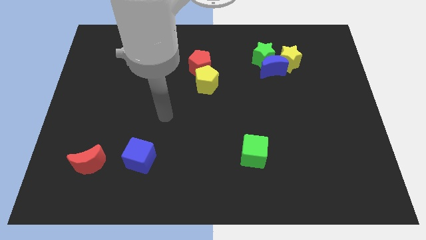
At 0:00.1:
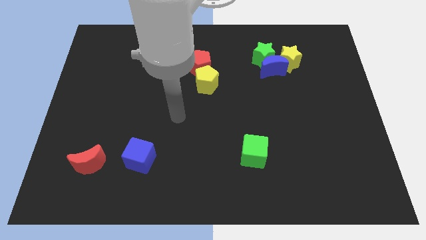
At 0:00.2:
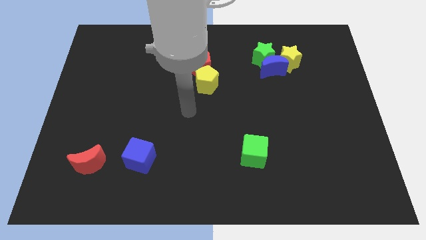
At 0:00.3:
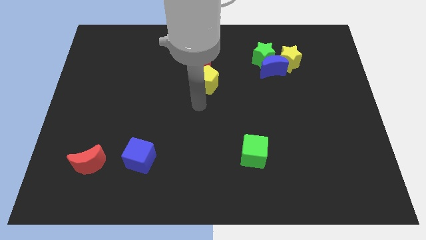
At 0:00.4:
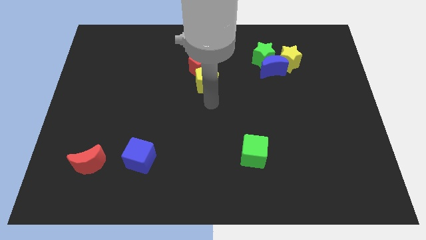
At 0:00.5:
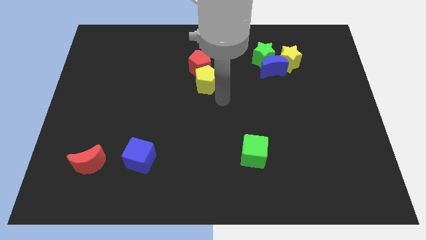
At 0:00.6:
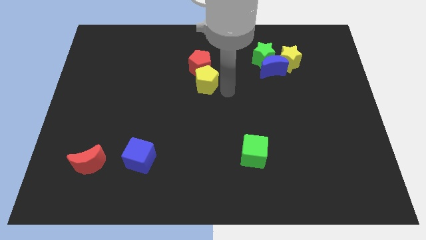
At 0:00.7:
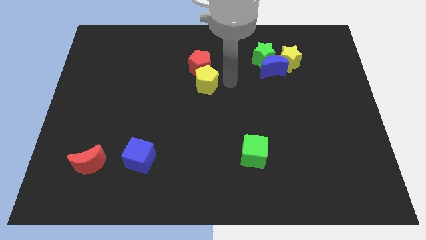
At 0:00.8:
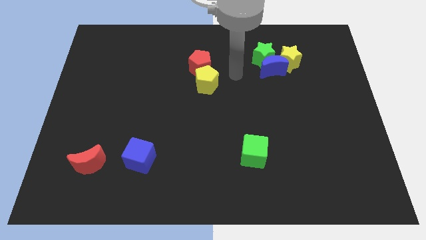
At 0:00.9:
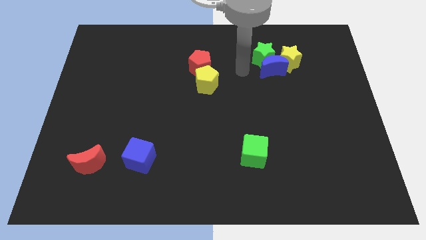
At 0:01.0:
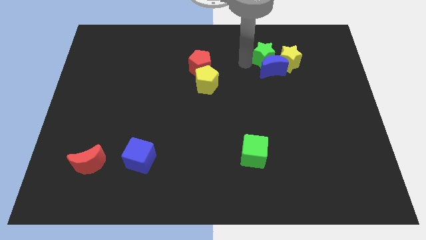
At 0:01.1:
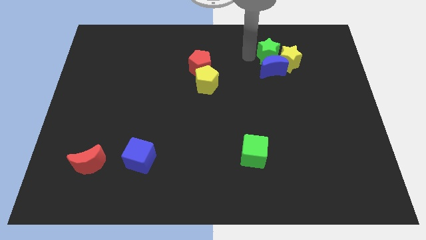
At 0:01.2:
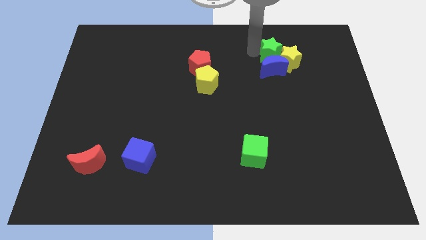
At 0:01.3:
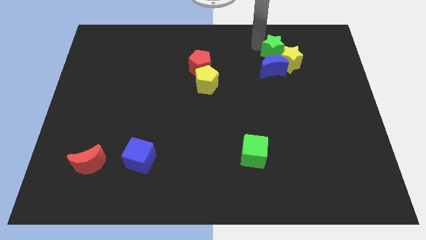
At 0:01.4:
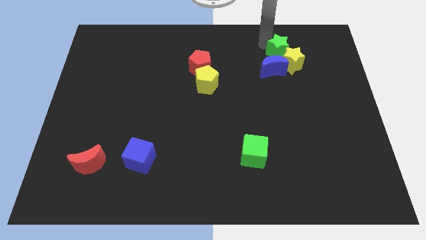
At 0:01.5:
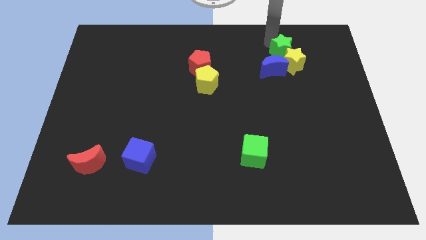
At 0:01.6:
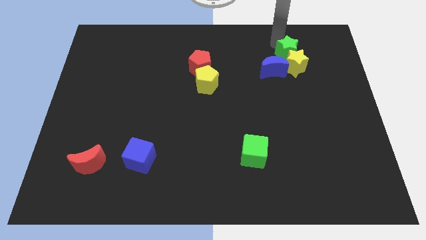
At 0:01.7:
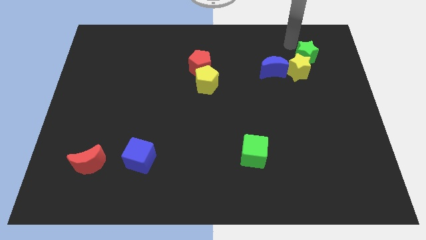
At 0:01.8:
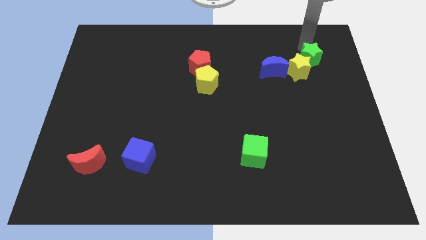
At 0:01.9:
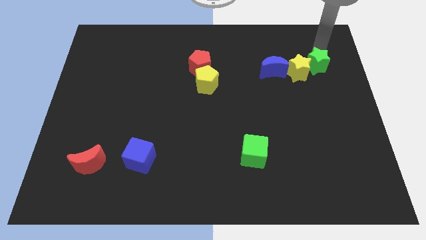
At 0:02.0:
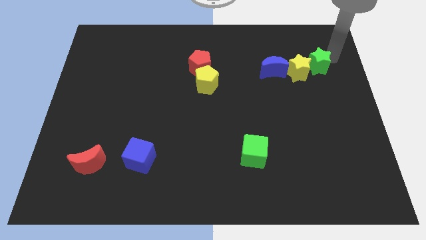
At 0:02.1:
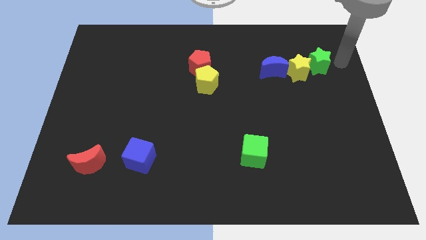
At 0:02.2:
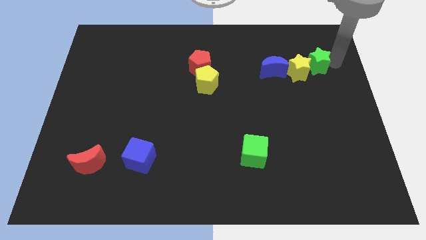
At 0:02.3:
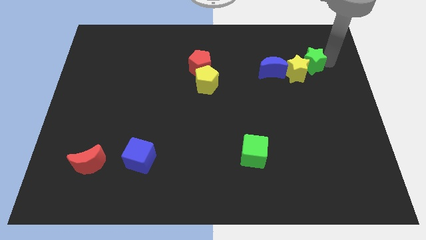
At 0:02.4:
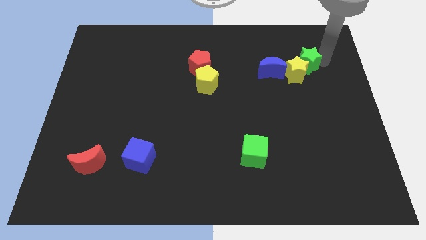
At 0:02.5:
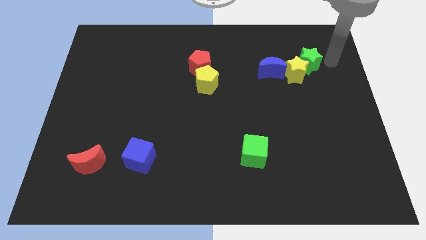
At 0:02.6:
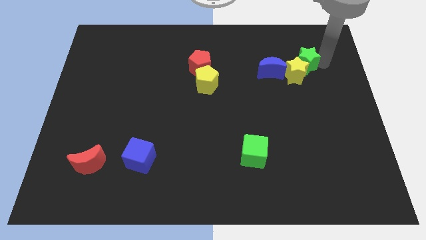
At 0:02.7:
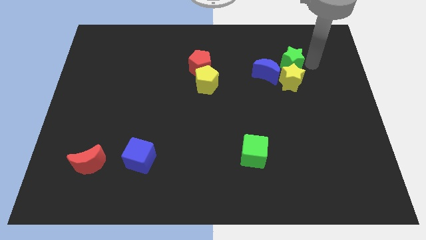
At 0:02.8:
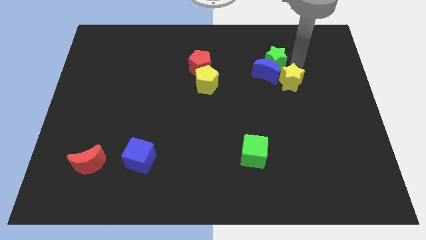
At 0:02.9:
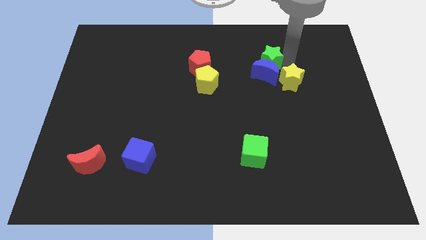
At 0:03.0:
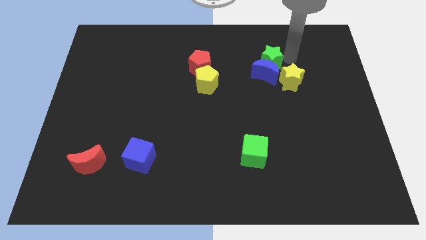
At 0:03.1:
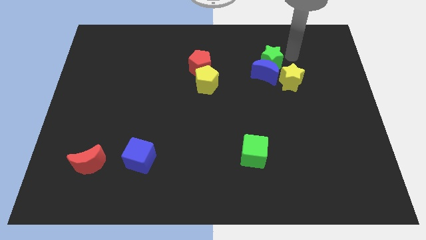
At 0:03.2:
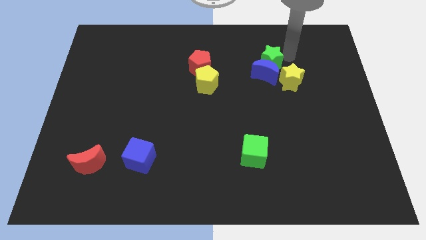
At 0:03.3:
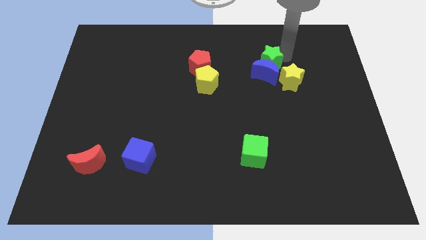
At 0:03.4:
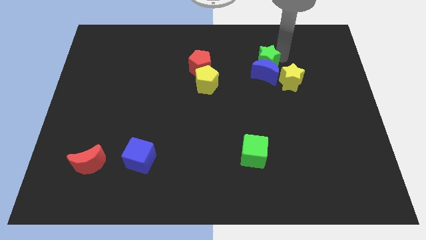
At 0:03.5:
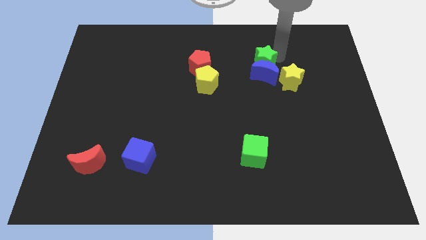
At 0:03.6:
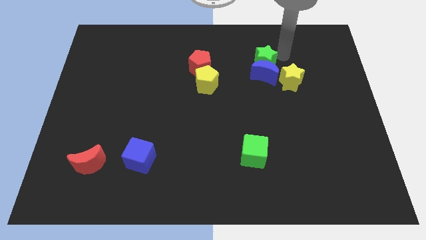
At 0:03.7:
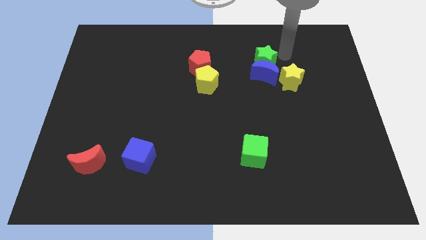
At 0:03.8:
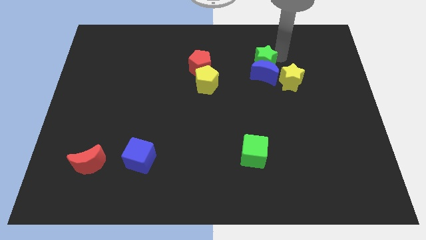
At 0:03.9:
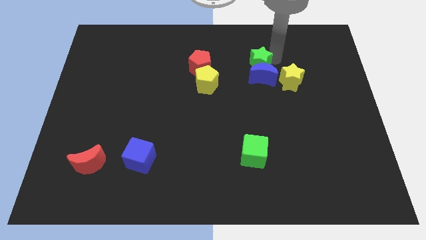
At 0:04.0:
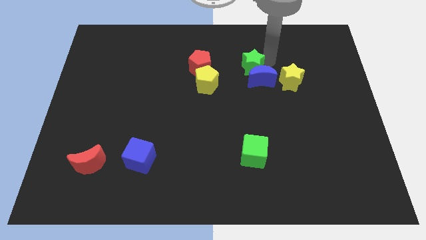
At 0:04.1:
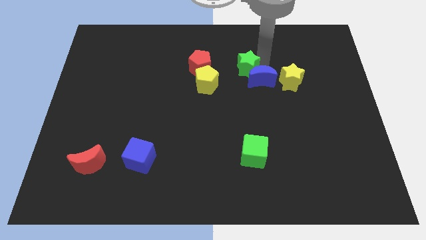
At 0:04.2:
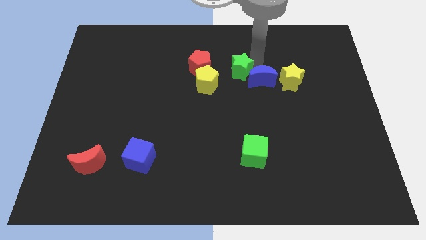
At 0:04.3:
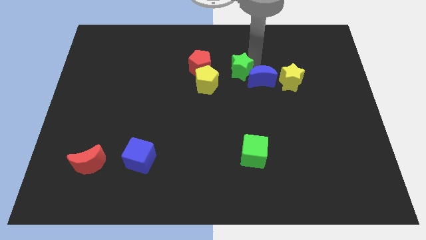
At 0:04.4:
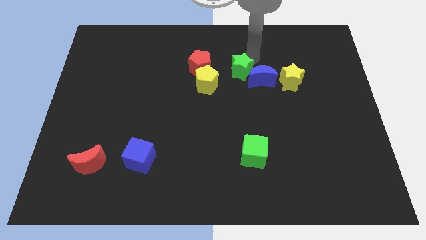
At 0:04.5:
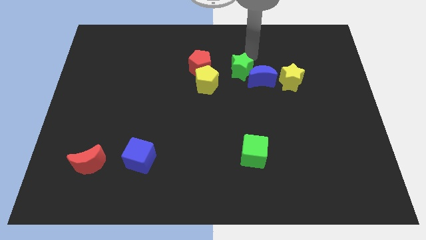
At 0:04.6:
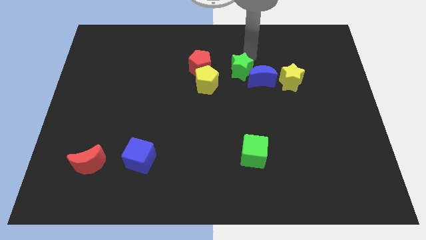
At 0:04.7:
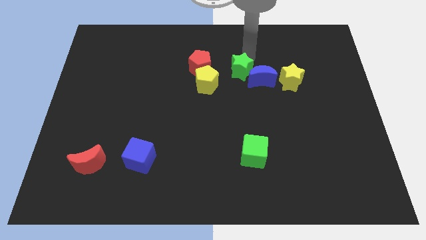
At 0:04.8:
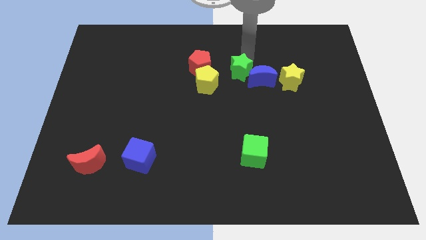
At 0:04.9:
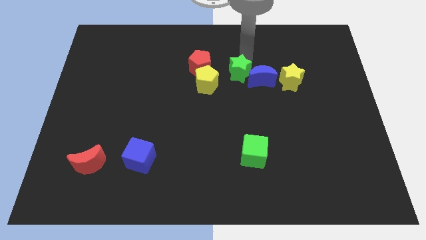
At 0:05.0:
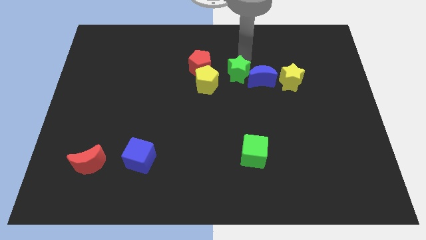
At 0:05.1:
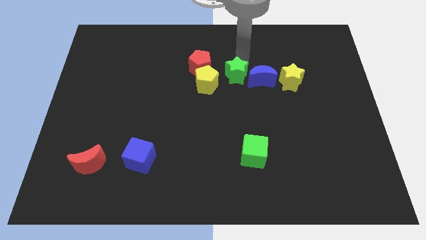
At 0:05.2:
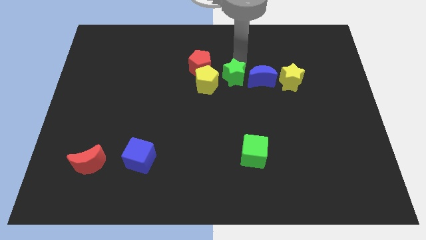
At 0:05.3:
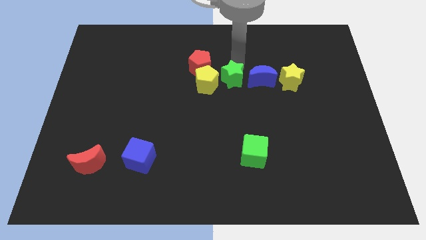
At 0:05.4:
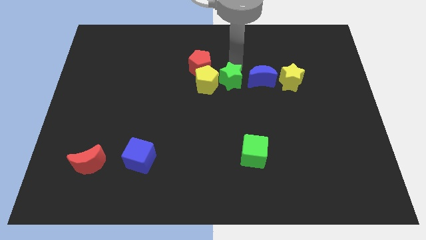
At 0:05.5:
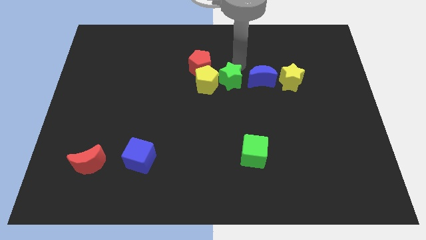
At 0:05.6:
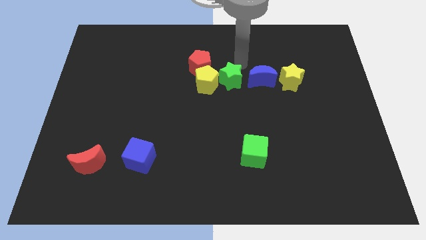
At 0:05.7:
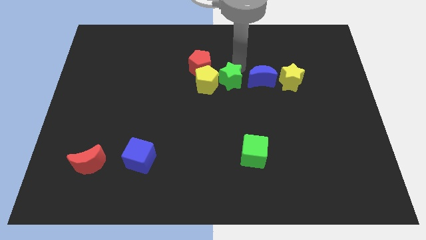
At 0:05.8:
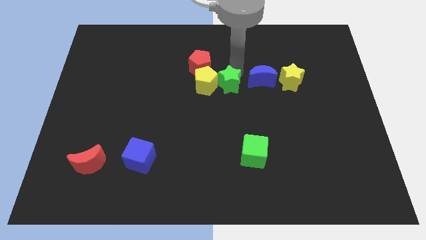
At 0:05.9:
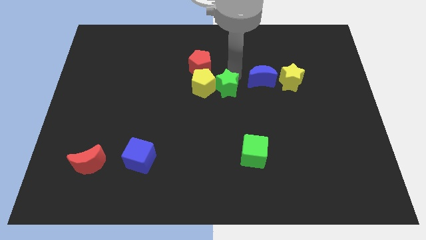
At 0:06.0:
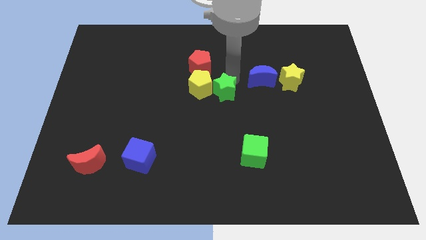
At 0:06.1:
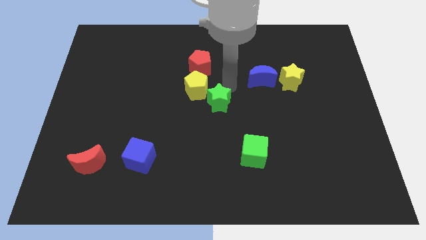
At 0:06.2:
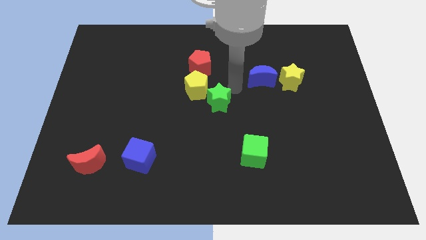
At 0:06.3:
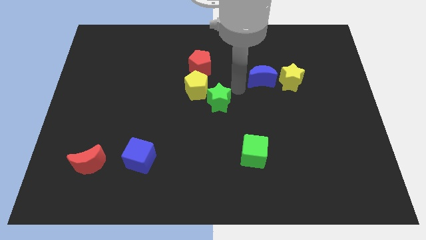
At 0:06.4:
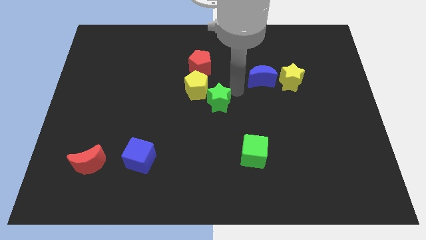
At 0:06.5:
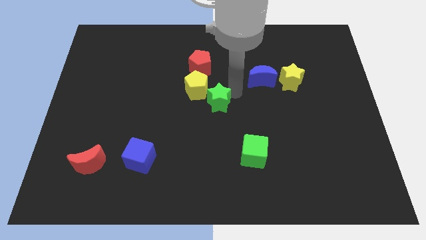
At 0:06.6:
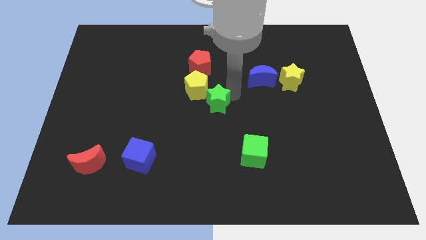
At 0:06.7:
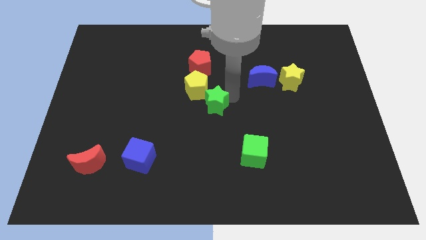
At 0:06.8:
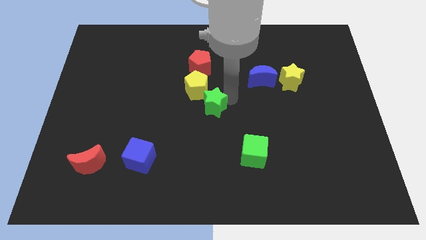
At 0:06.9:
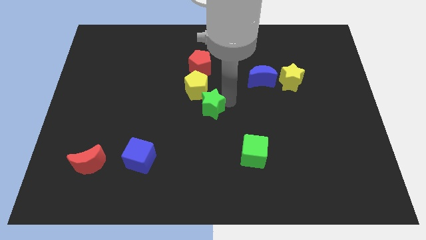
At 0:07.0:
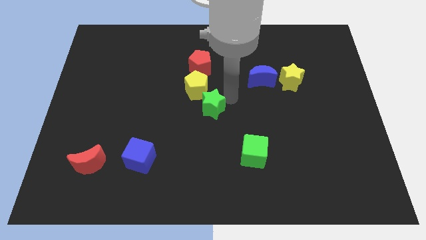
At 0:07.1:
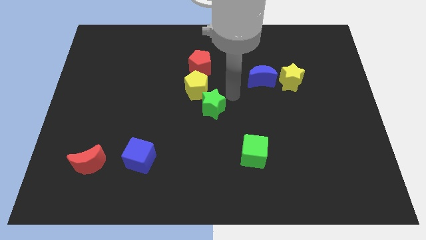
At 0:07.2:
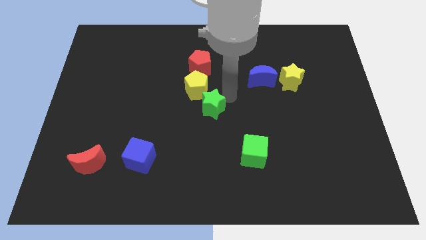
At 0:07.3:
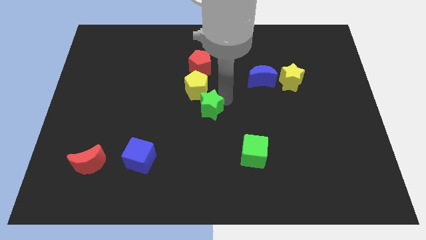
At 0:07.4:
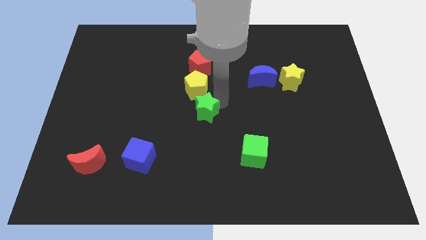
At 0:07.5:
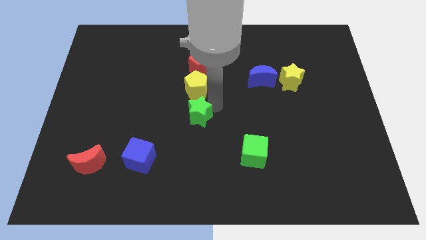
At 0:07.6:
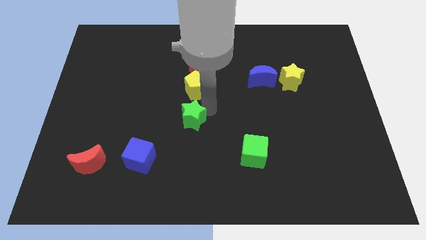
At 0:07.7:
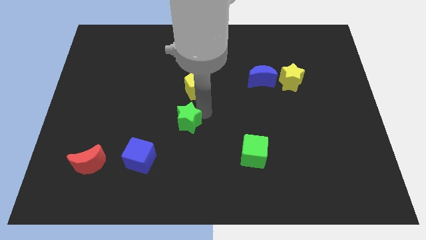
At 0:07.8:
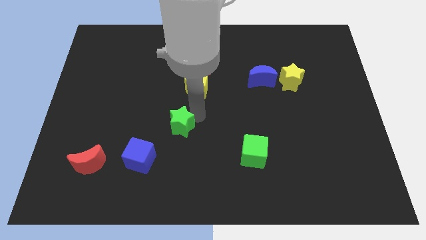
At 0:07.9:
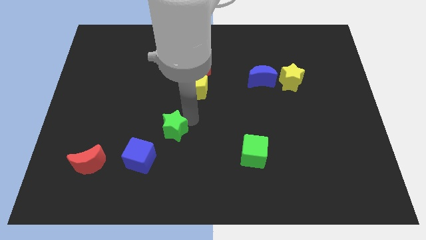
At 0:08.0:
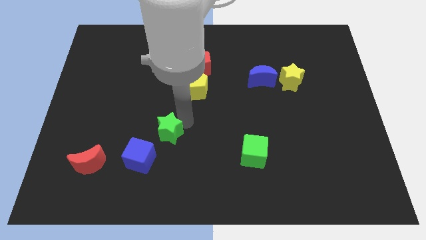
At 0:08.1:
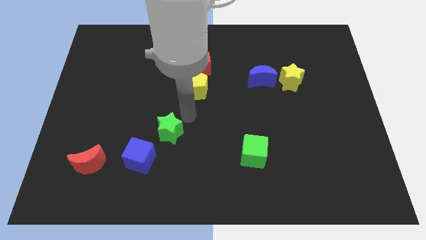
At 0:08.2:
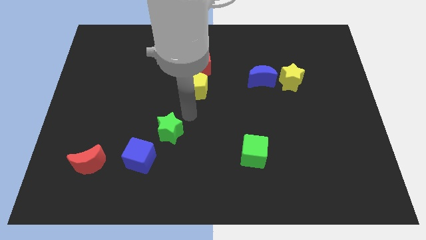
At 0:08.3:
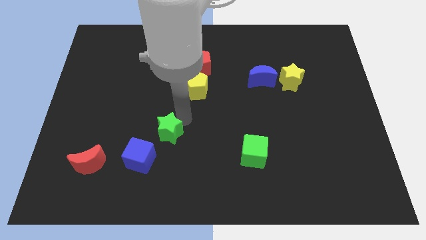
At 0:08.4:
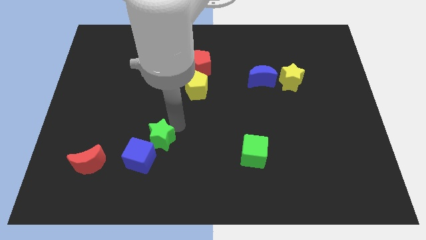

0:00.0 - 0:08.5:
slide the green star close to the blue cube
